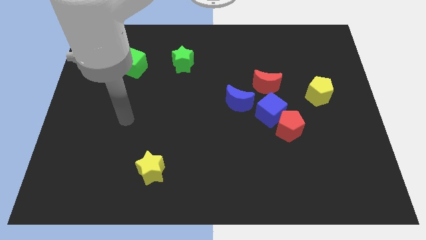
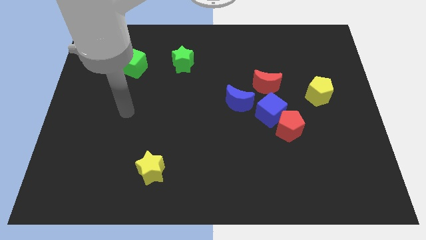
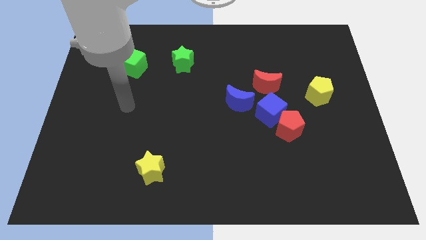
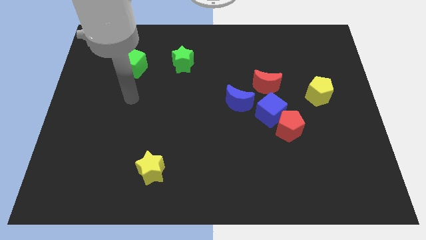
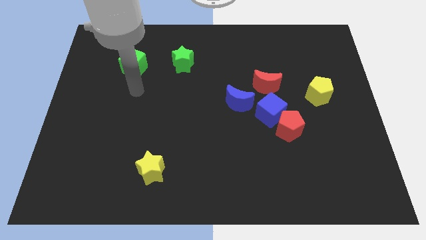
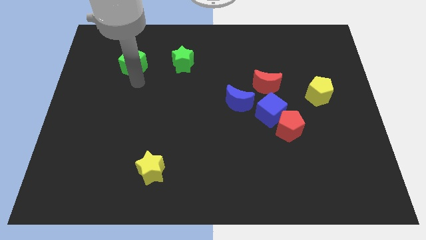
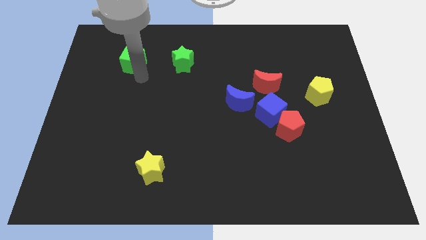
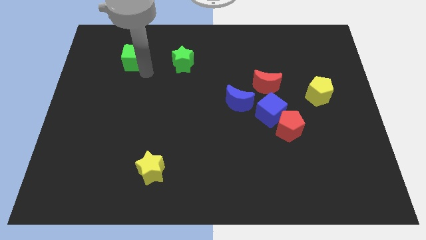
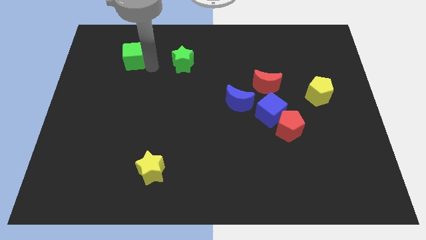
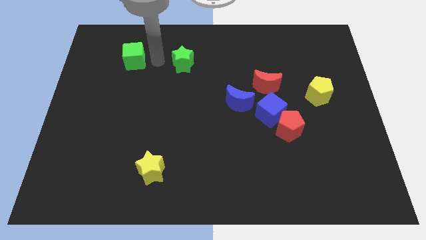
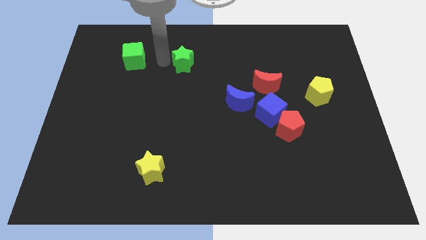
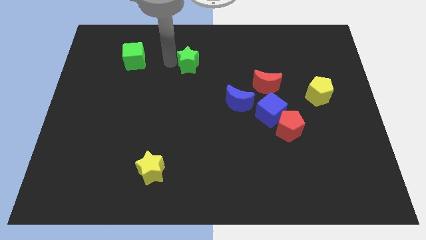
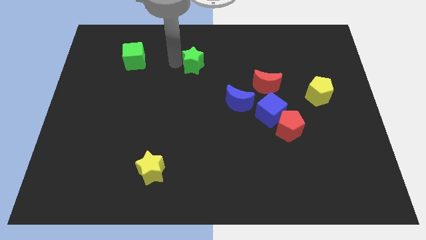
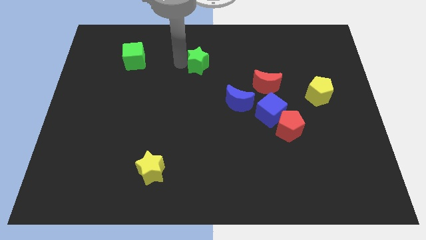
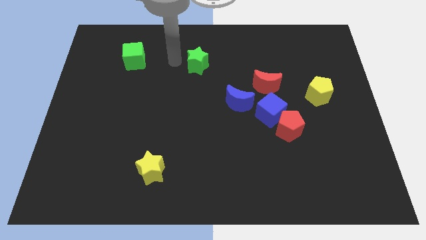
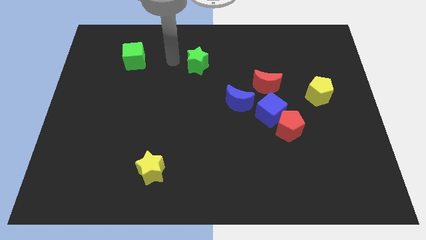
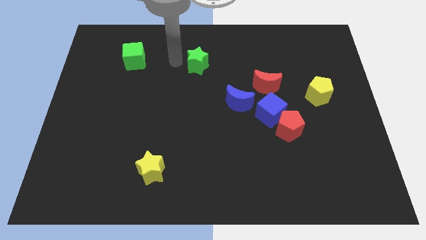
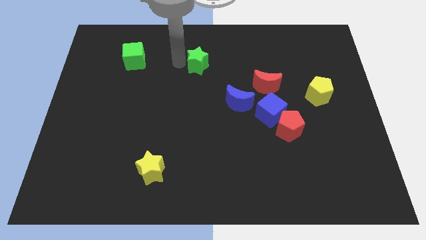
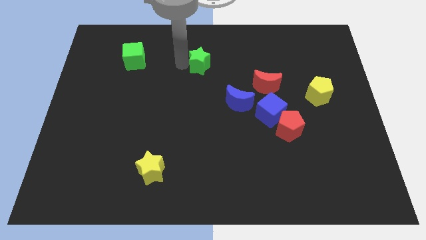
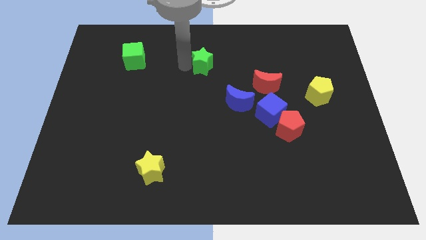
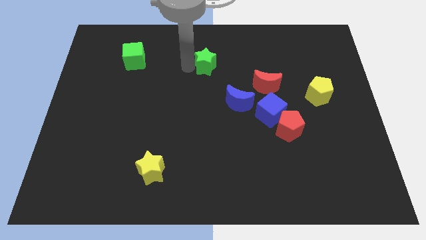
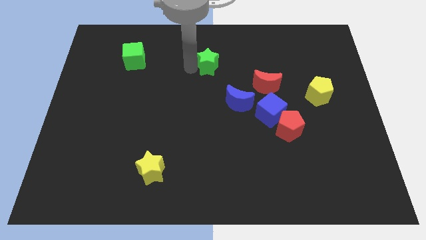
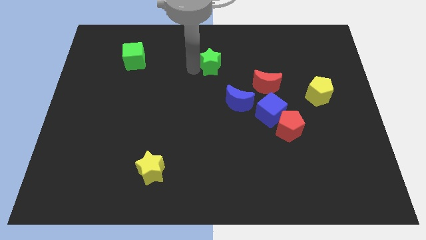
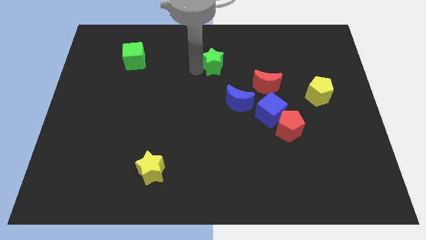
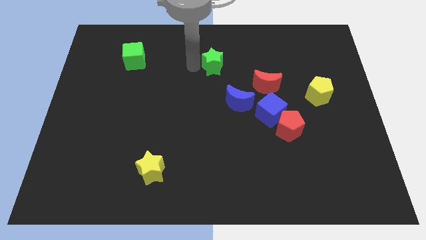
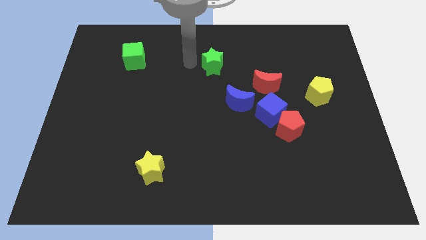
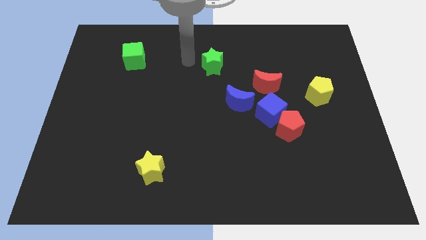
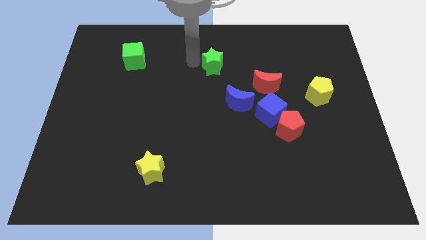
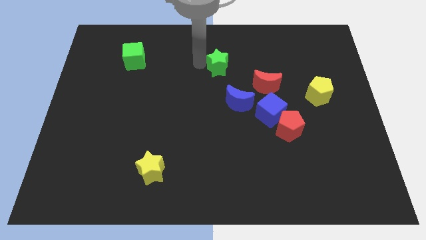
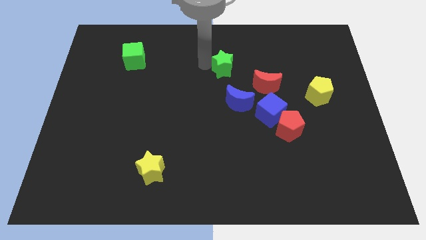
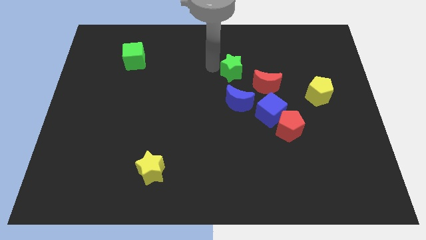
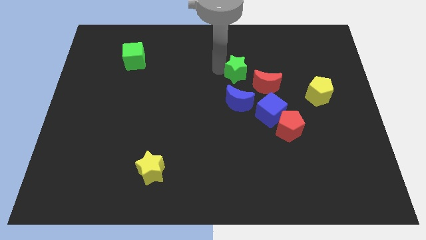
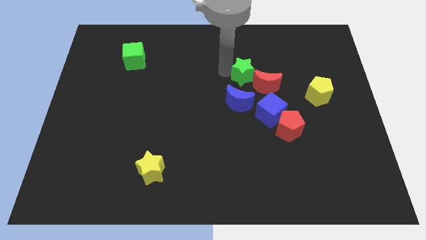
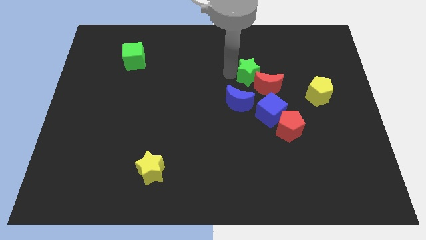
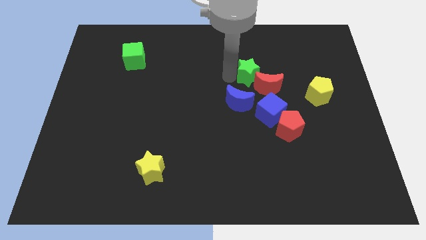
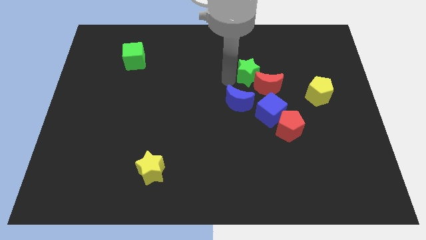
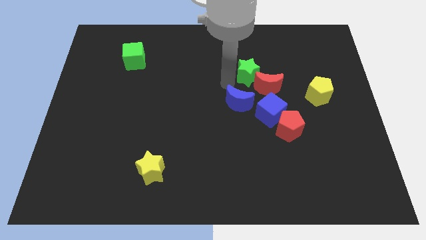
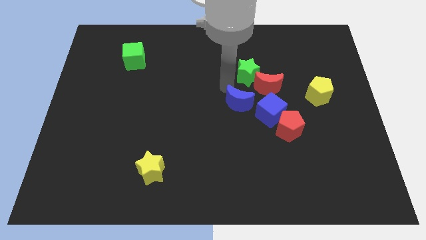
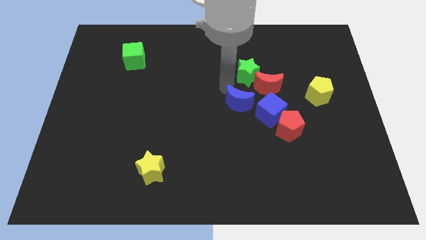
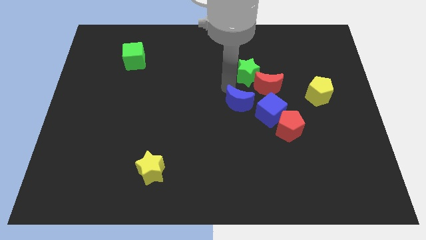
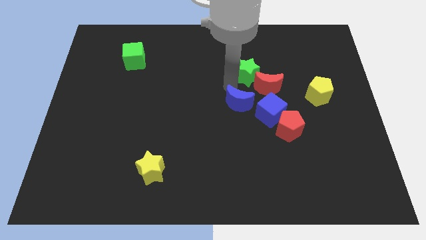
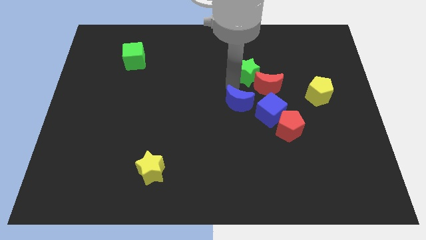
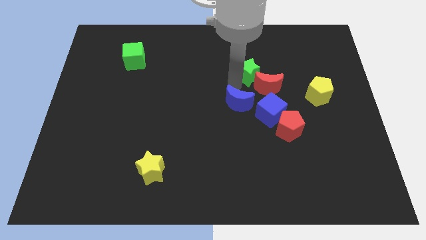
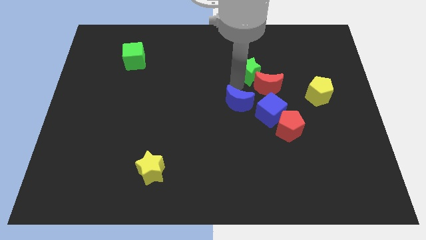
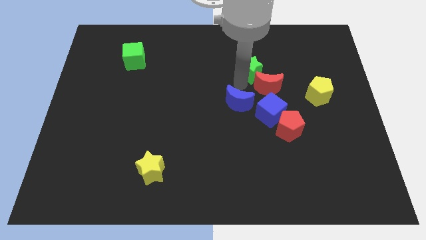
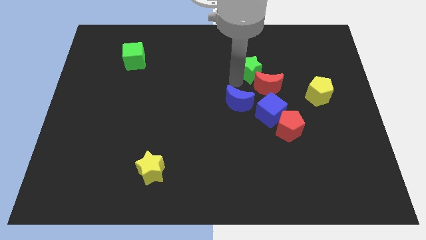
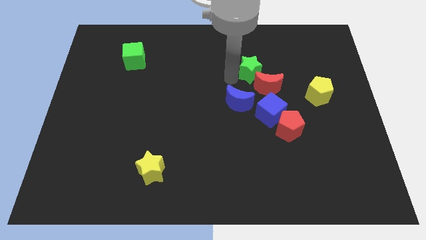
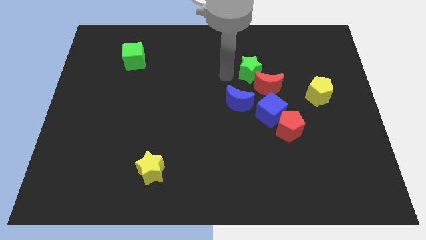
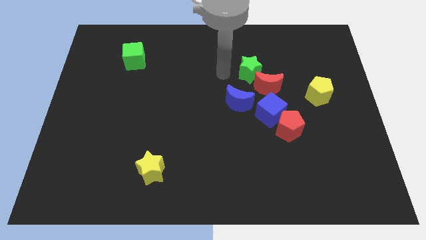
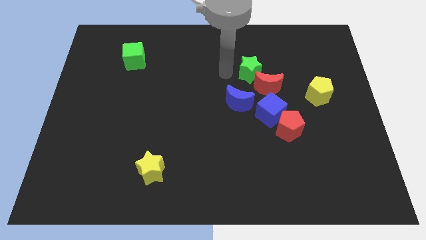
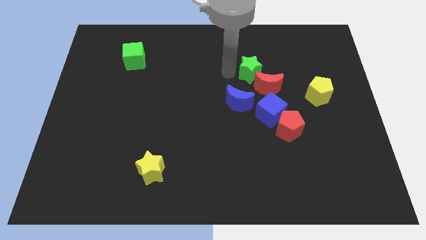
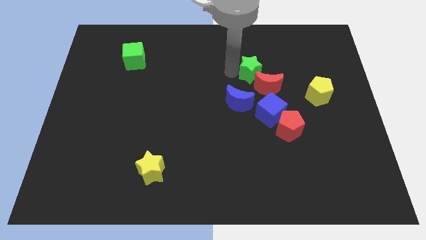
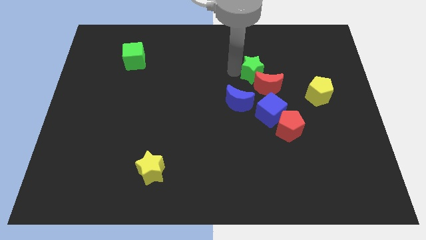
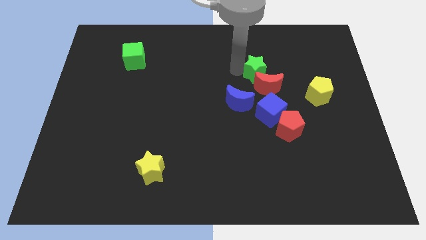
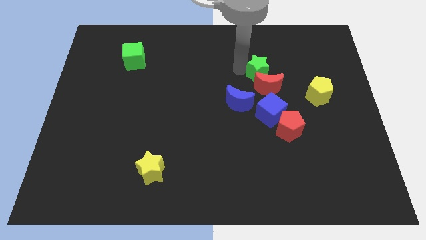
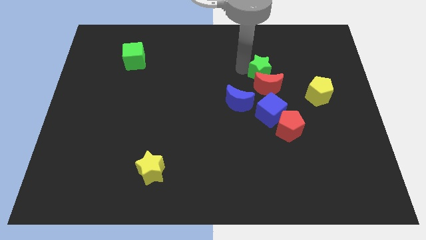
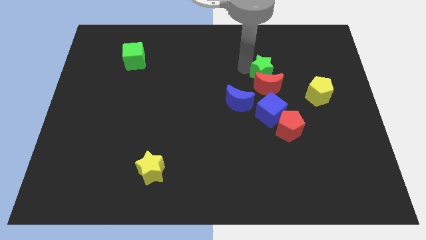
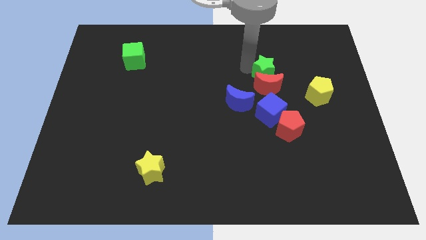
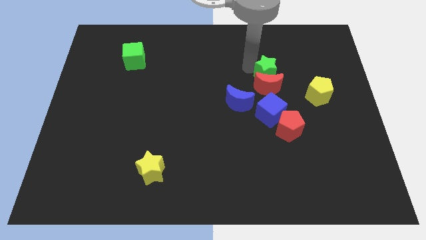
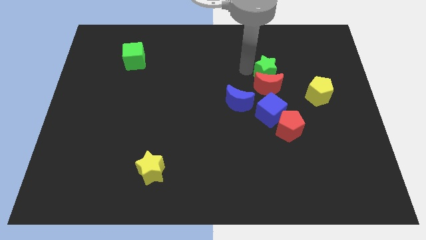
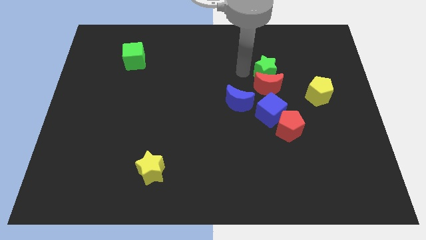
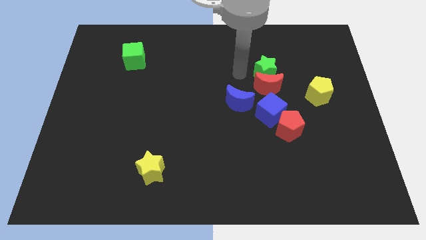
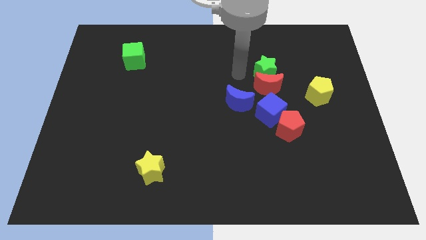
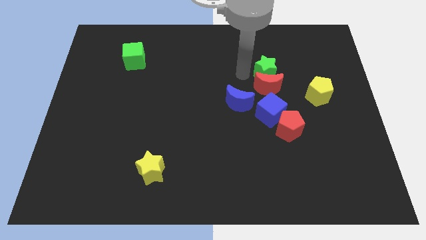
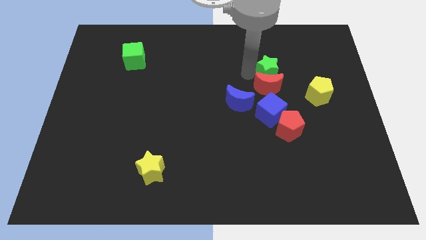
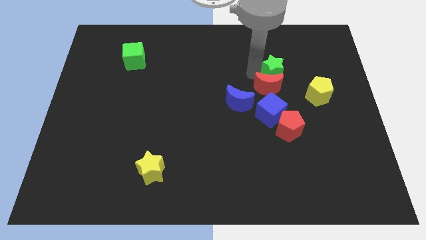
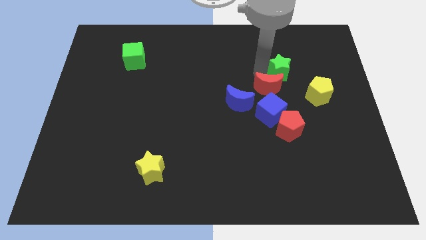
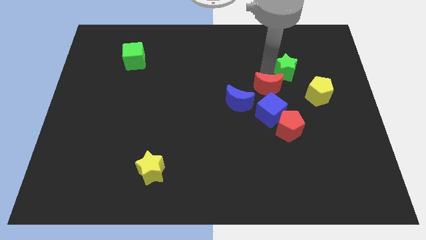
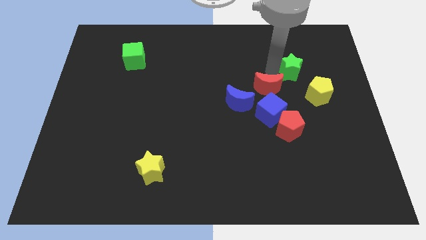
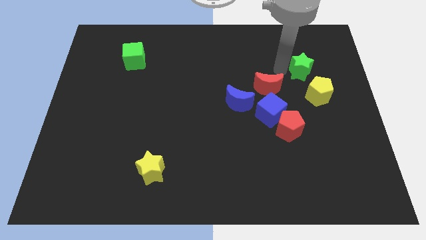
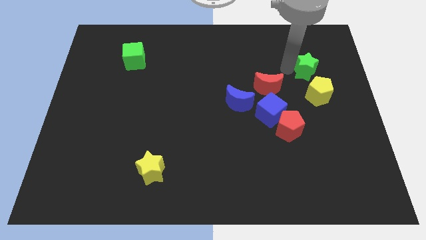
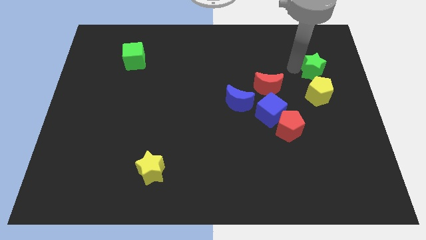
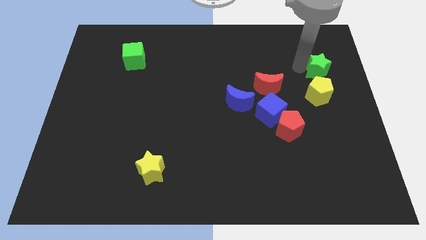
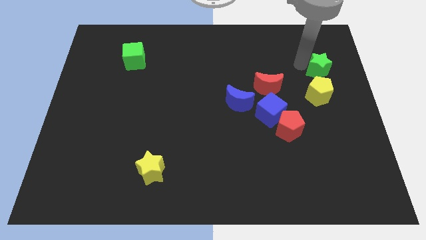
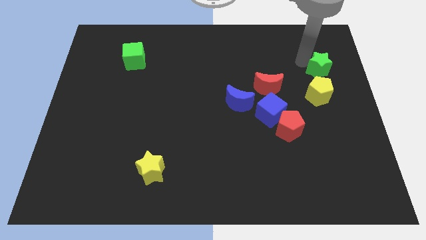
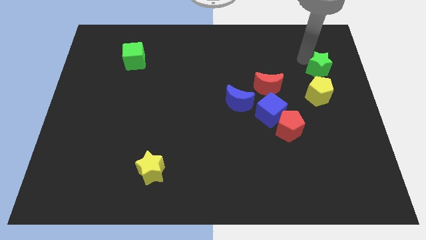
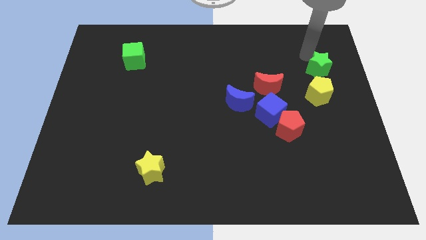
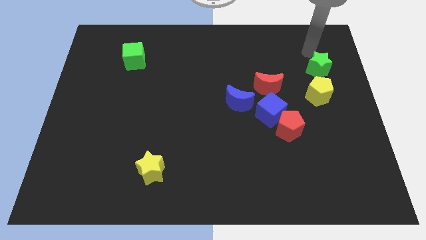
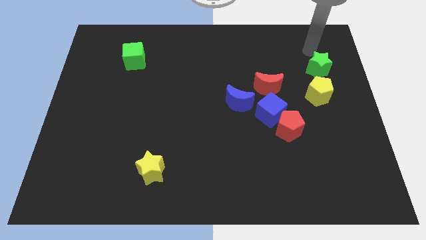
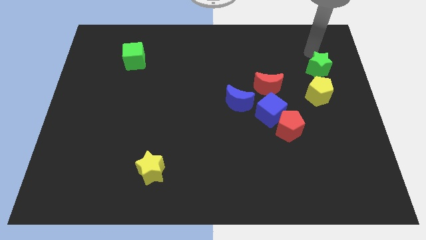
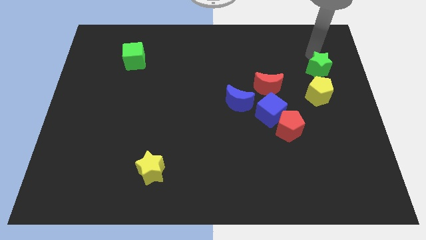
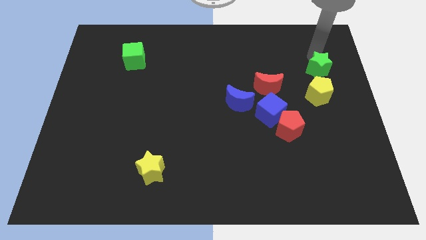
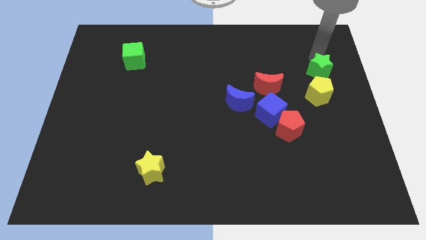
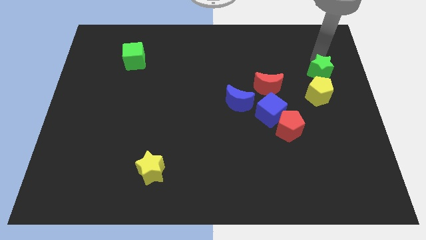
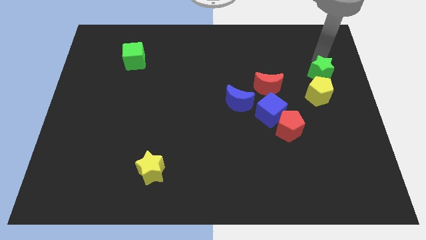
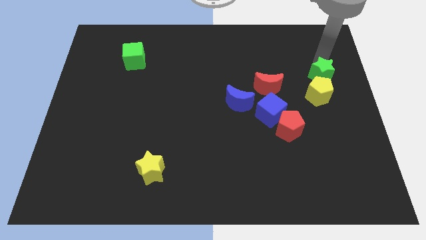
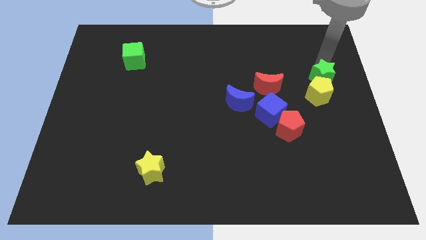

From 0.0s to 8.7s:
push the green star to the right side of the board
